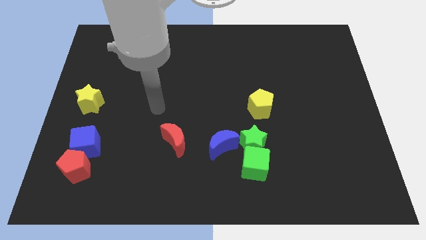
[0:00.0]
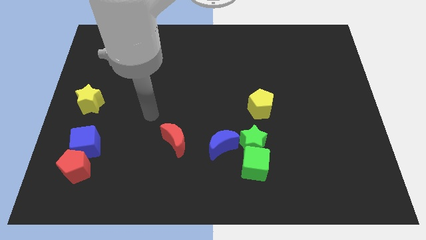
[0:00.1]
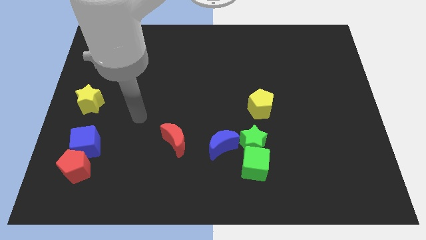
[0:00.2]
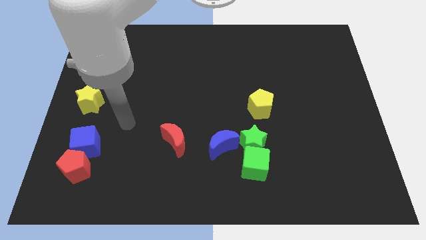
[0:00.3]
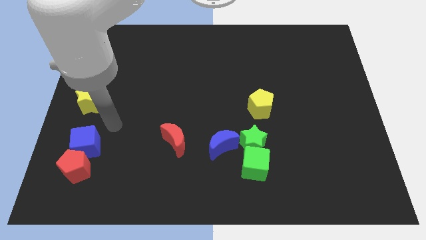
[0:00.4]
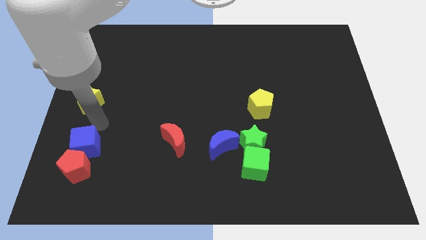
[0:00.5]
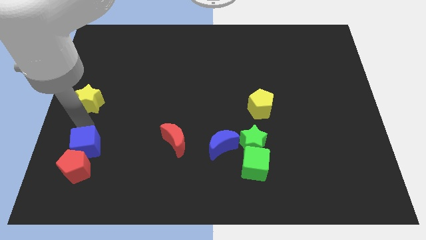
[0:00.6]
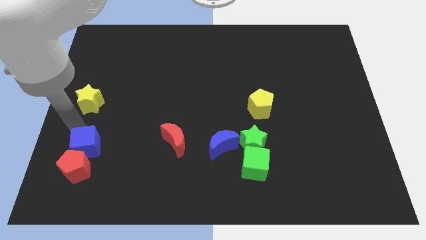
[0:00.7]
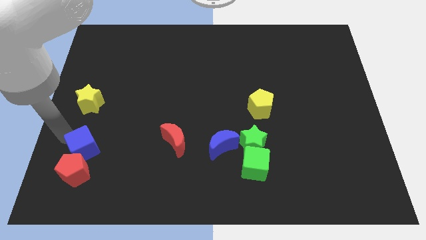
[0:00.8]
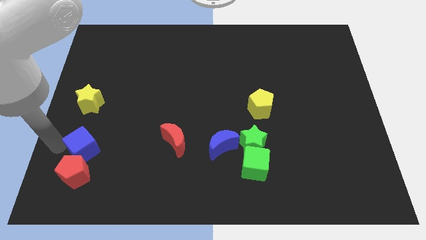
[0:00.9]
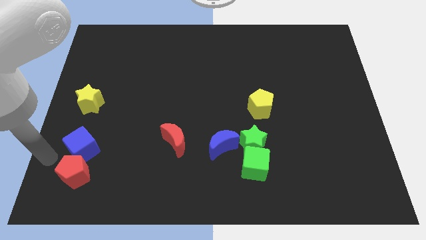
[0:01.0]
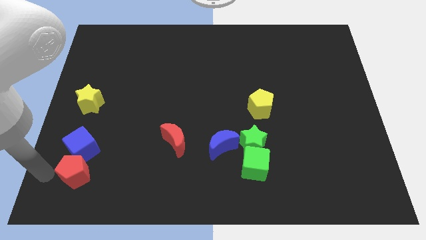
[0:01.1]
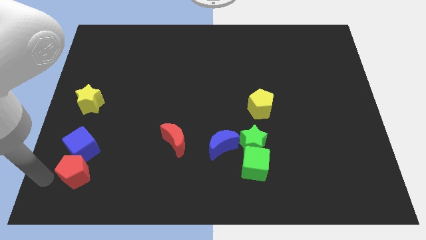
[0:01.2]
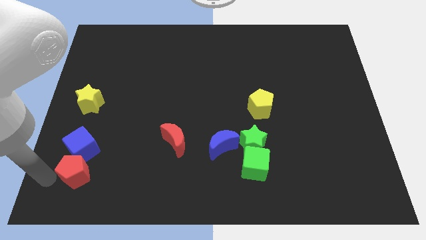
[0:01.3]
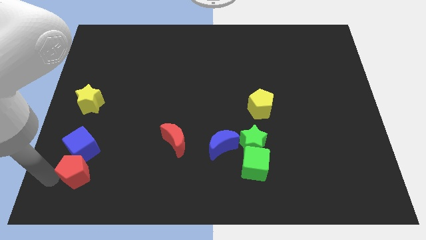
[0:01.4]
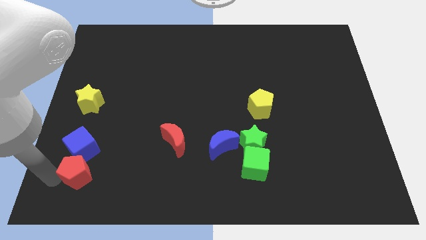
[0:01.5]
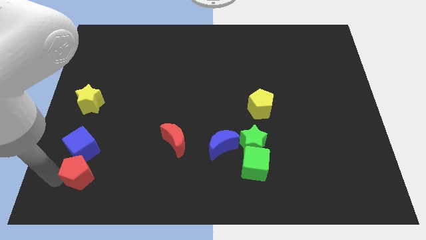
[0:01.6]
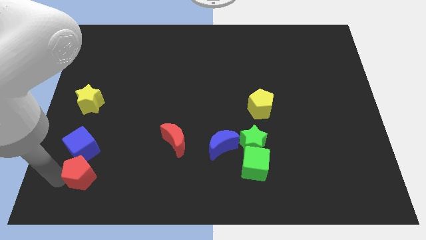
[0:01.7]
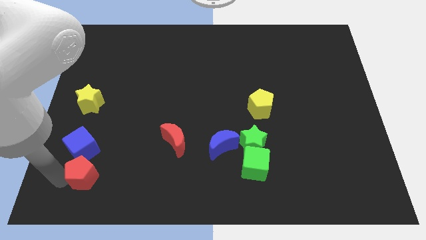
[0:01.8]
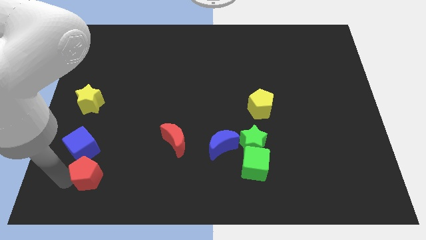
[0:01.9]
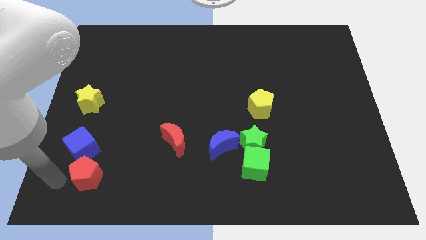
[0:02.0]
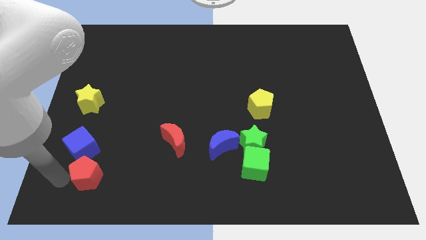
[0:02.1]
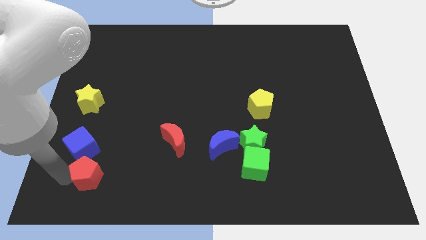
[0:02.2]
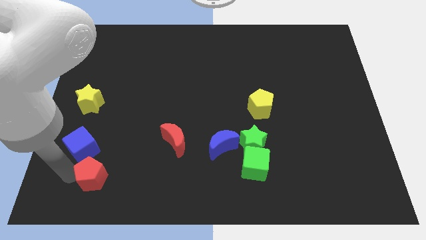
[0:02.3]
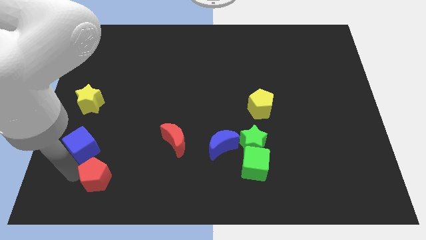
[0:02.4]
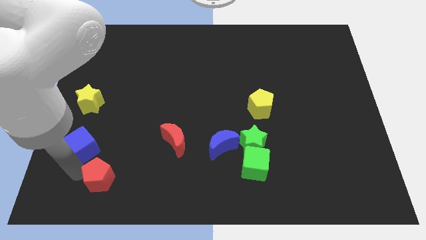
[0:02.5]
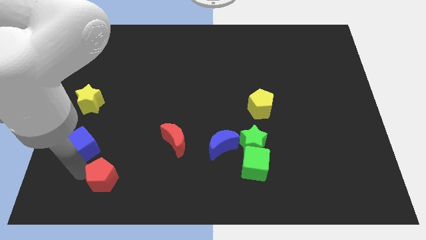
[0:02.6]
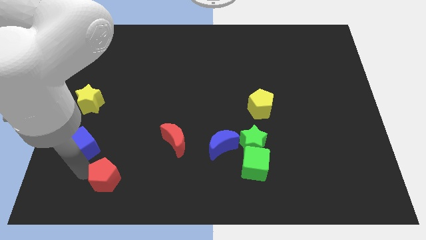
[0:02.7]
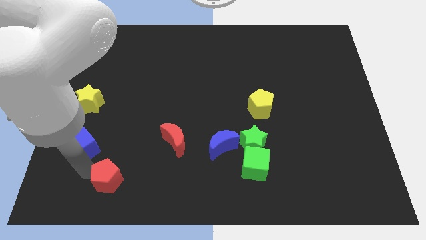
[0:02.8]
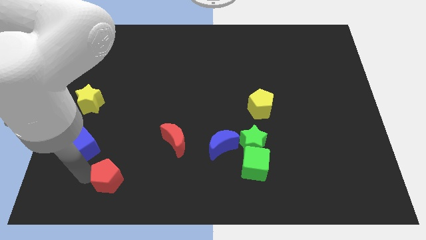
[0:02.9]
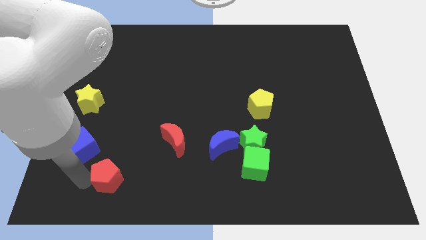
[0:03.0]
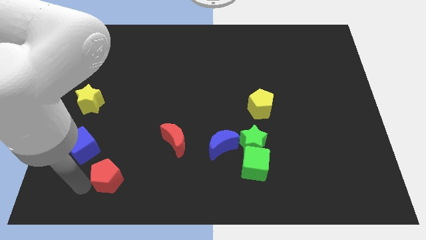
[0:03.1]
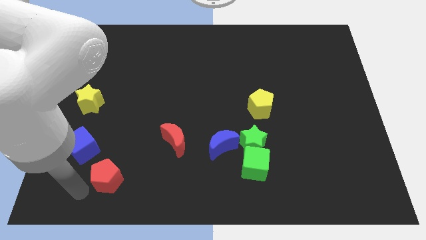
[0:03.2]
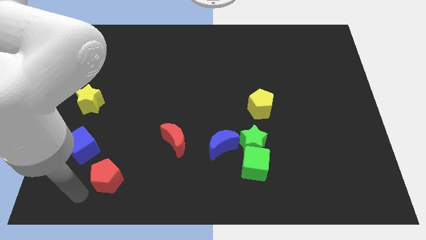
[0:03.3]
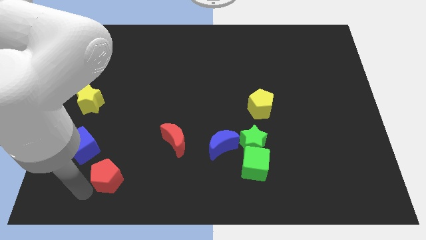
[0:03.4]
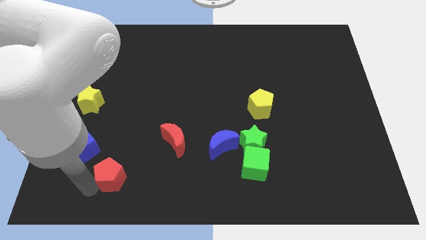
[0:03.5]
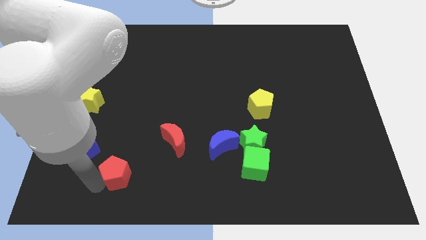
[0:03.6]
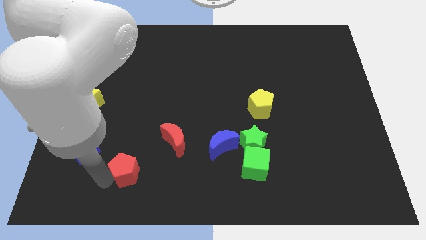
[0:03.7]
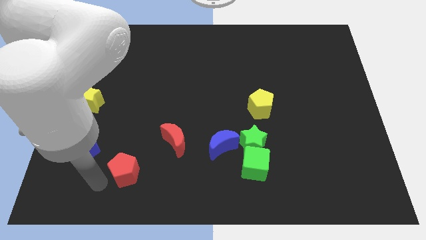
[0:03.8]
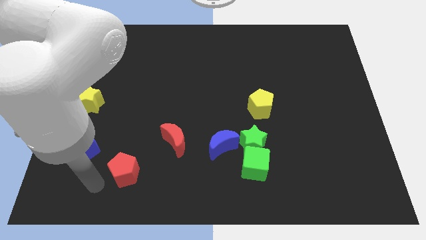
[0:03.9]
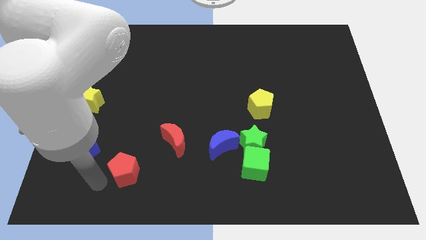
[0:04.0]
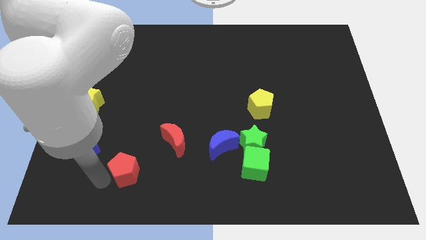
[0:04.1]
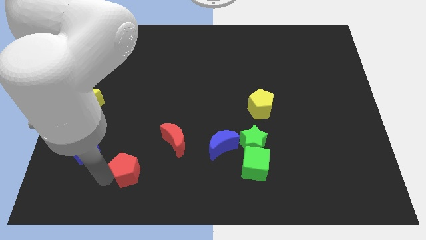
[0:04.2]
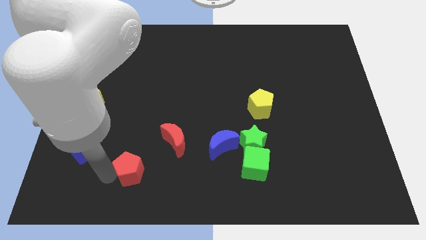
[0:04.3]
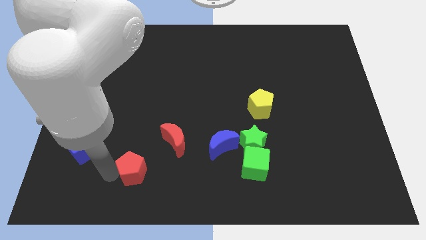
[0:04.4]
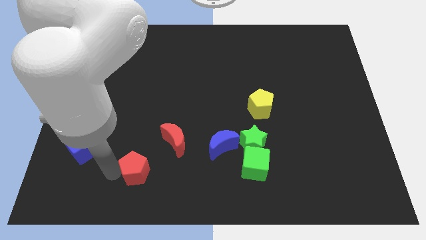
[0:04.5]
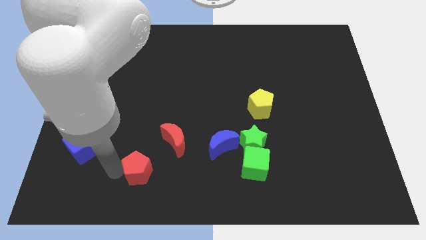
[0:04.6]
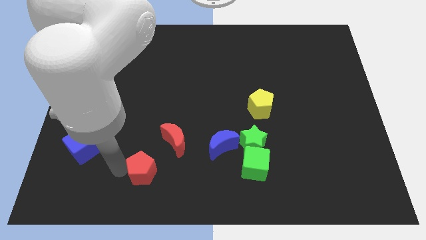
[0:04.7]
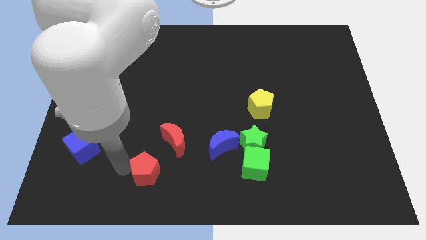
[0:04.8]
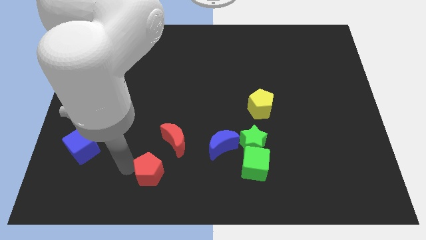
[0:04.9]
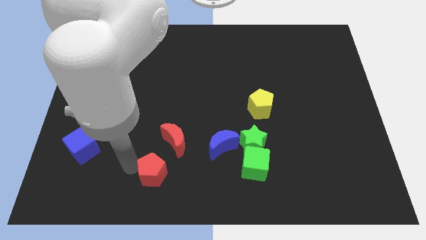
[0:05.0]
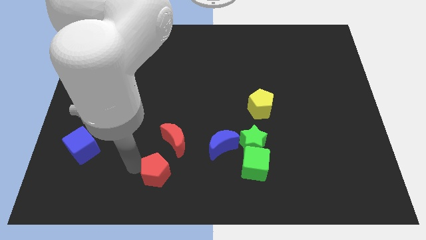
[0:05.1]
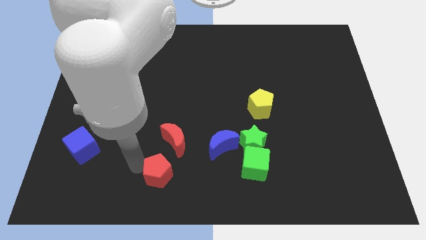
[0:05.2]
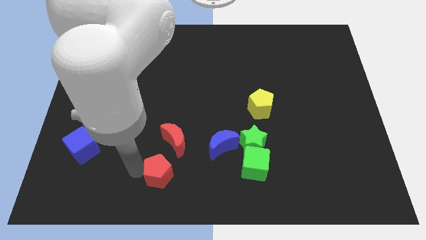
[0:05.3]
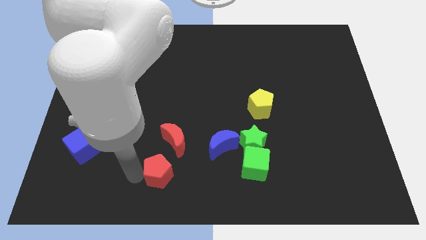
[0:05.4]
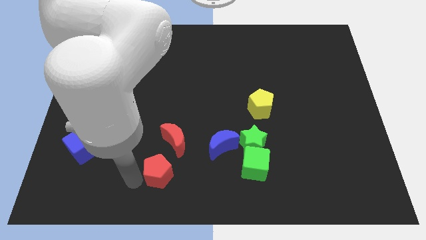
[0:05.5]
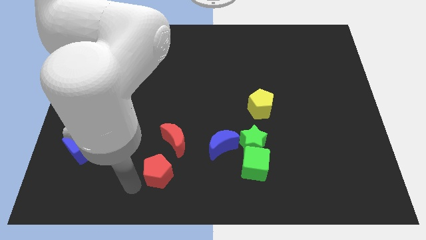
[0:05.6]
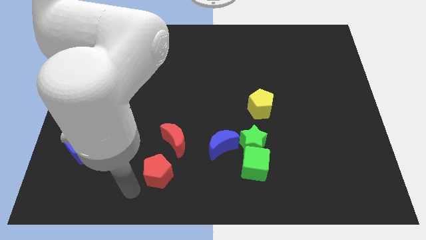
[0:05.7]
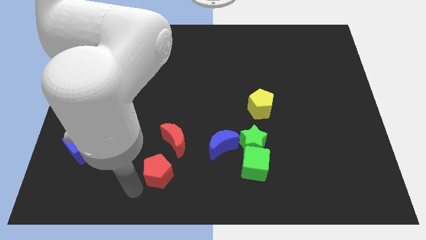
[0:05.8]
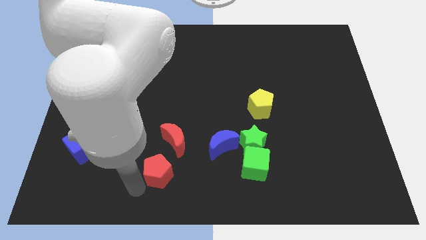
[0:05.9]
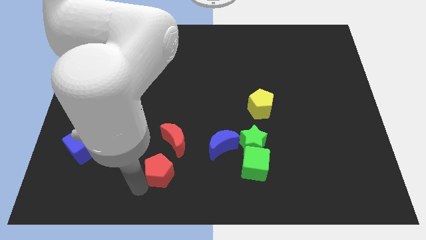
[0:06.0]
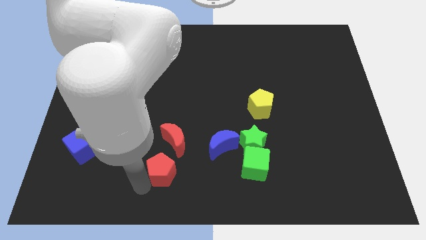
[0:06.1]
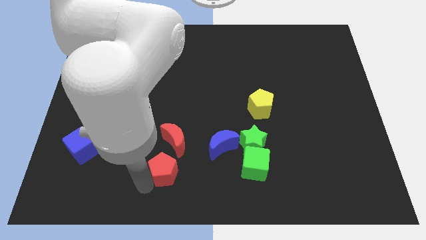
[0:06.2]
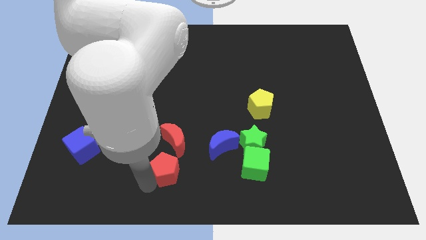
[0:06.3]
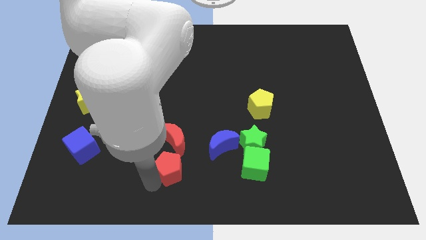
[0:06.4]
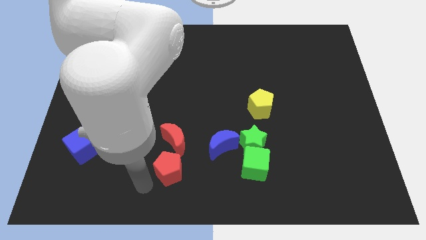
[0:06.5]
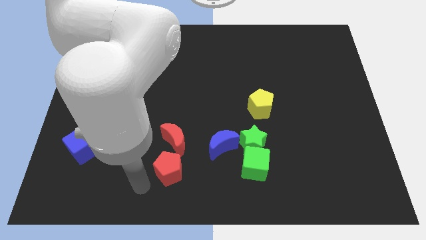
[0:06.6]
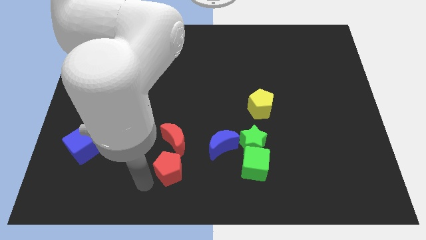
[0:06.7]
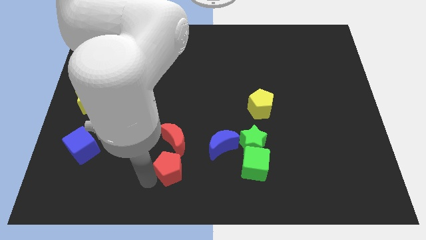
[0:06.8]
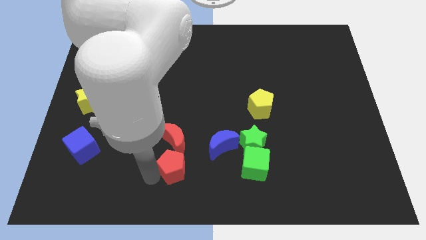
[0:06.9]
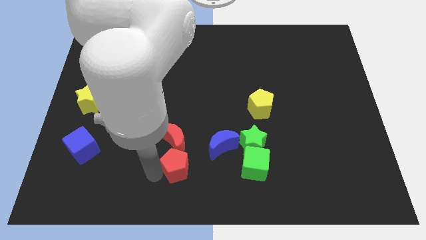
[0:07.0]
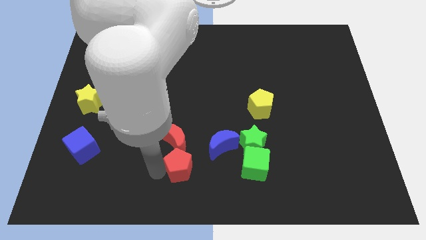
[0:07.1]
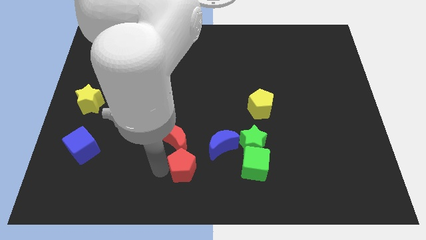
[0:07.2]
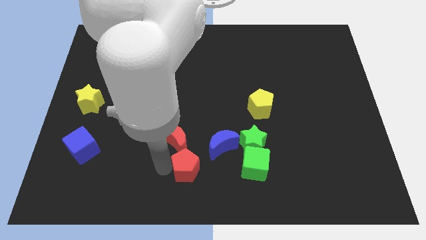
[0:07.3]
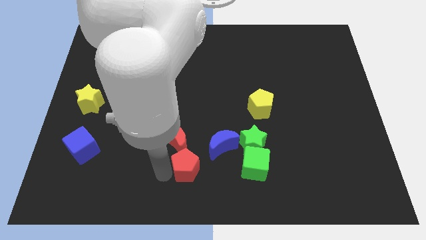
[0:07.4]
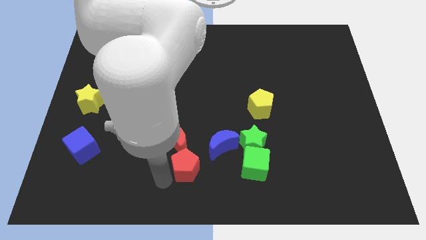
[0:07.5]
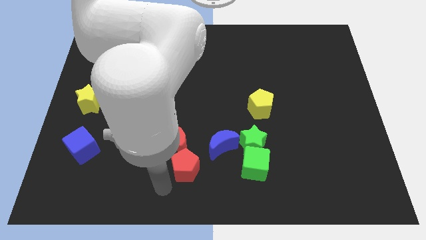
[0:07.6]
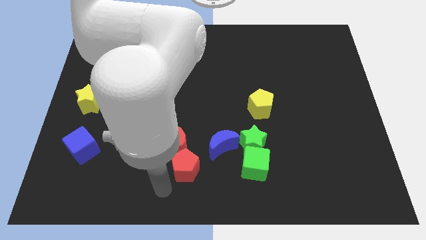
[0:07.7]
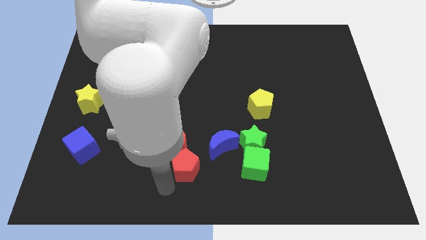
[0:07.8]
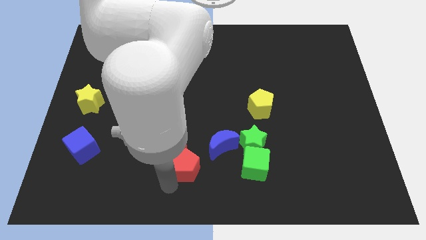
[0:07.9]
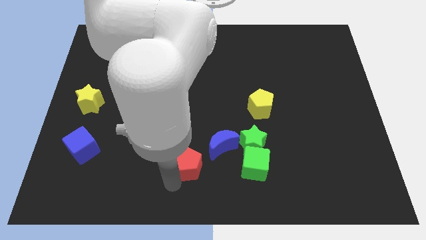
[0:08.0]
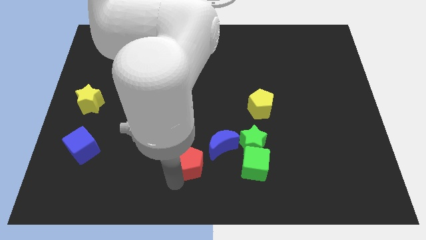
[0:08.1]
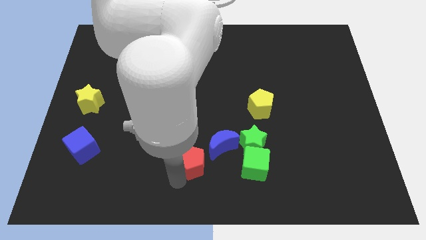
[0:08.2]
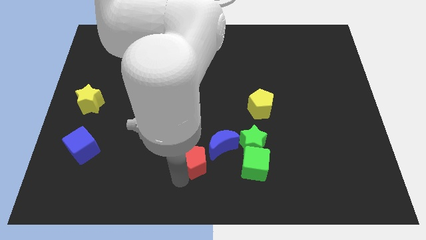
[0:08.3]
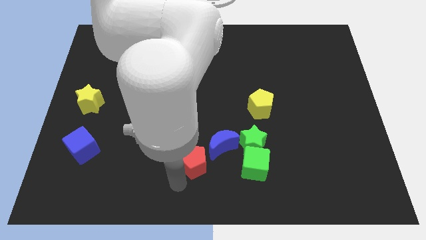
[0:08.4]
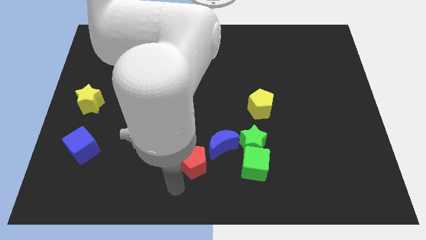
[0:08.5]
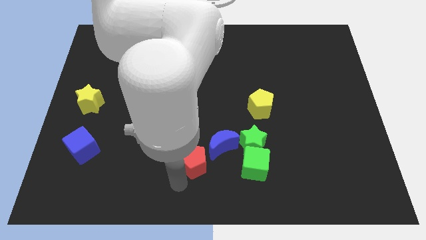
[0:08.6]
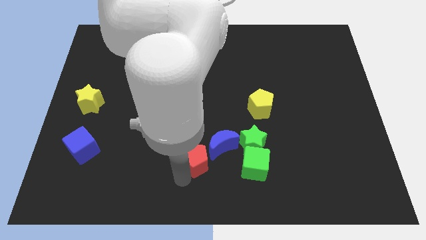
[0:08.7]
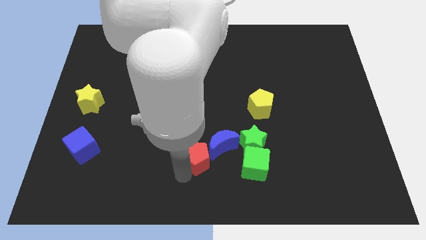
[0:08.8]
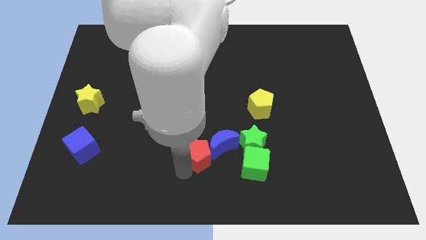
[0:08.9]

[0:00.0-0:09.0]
move the red pentagon towards the blue moon
